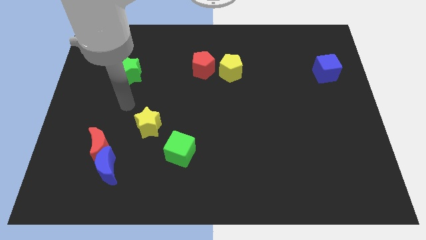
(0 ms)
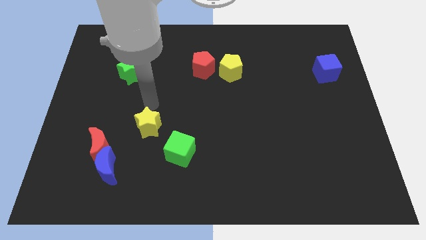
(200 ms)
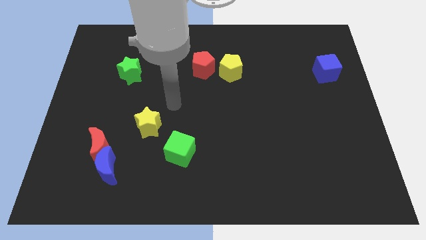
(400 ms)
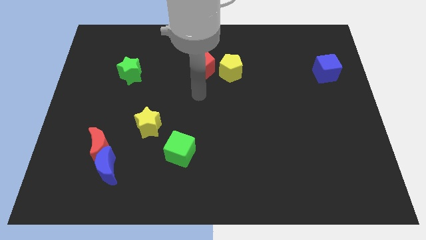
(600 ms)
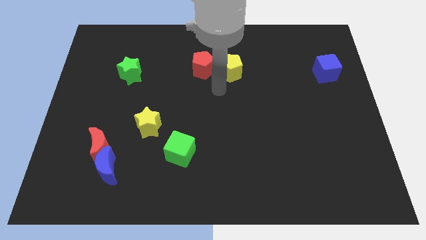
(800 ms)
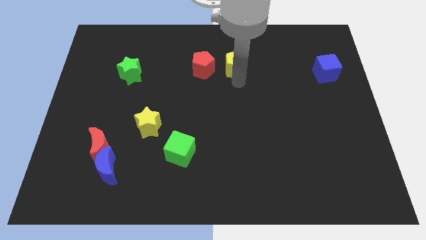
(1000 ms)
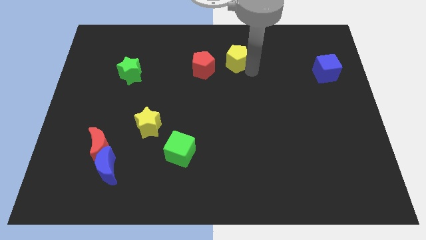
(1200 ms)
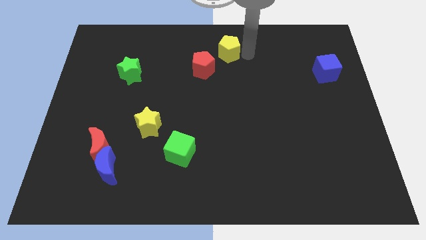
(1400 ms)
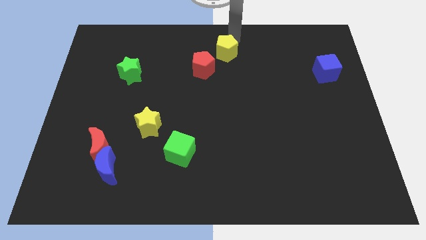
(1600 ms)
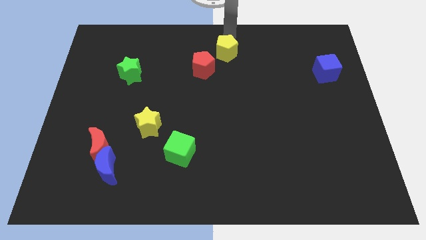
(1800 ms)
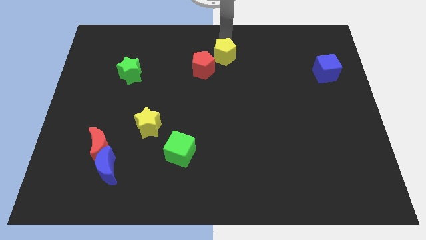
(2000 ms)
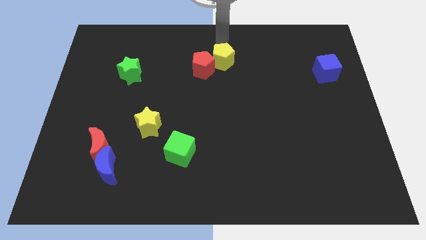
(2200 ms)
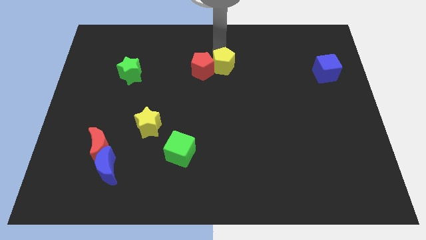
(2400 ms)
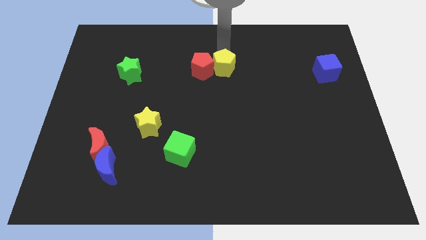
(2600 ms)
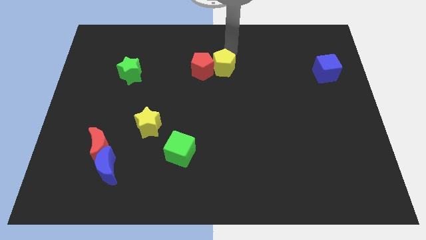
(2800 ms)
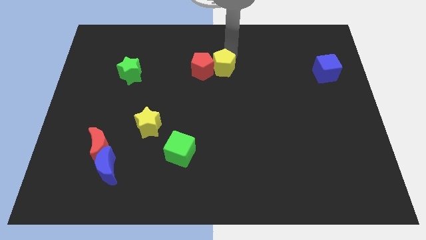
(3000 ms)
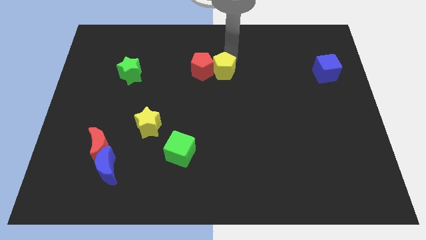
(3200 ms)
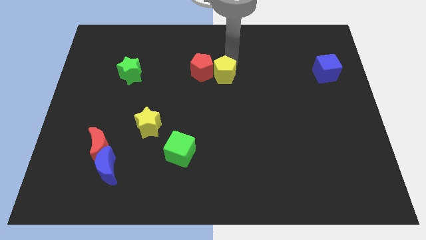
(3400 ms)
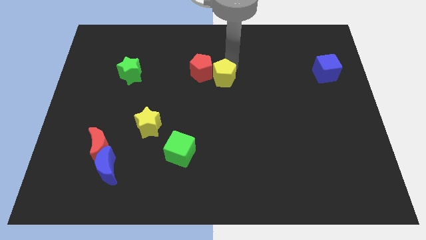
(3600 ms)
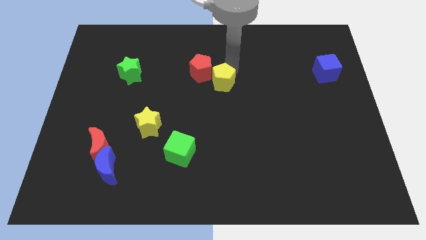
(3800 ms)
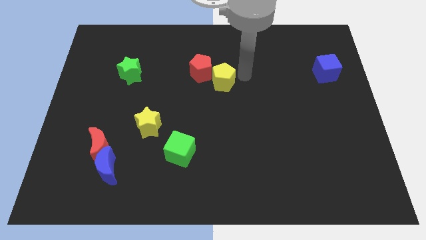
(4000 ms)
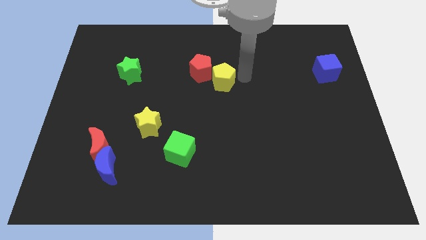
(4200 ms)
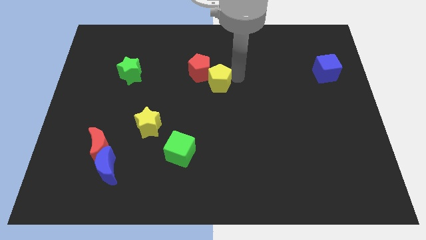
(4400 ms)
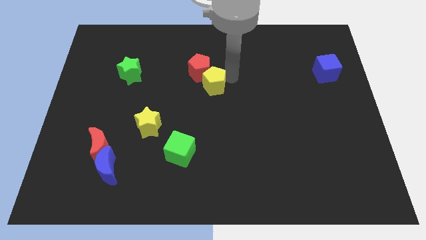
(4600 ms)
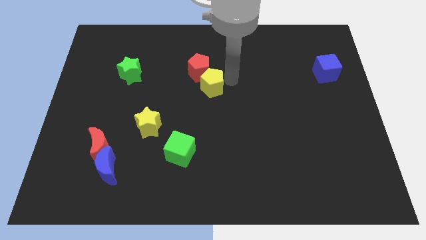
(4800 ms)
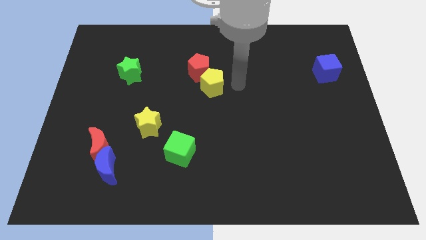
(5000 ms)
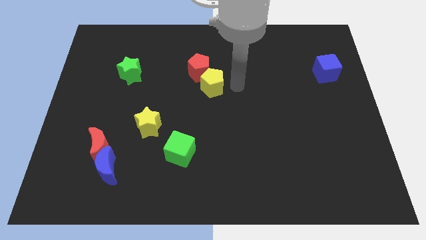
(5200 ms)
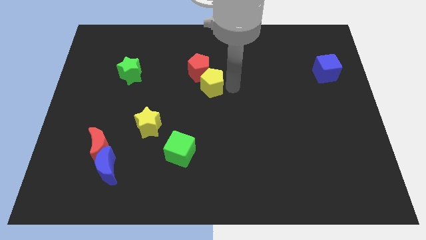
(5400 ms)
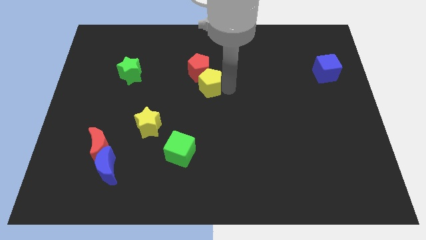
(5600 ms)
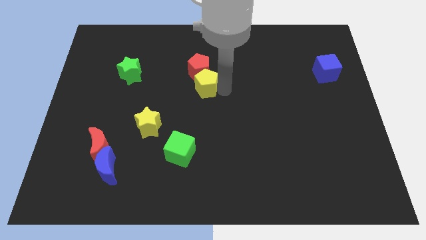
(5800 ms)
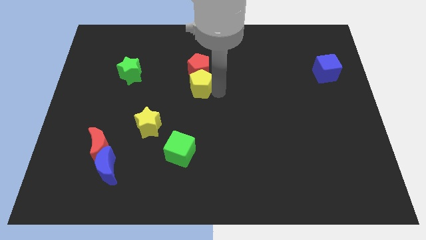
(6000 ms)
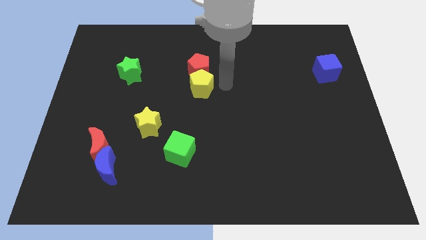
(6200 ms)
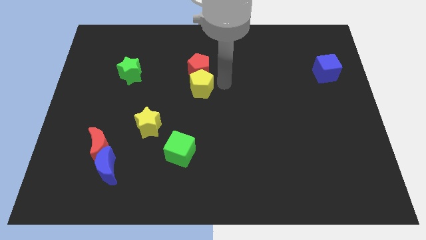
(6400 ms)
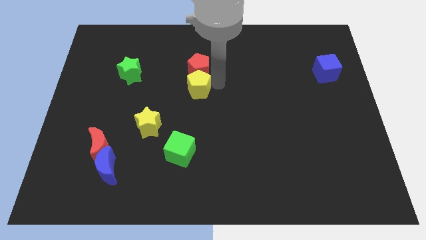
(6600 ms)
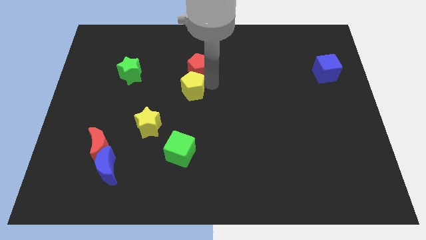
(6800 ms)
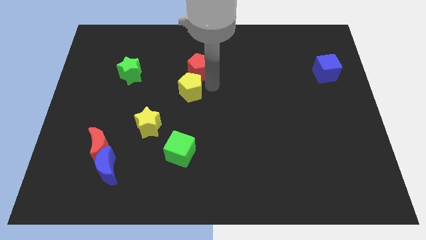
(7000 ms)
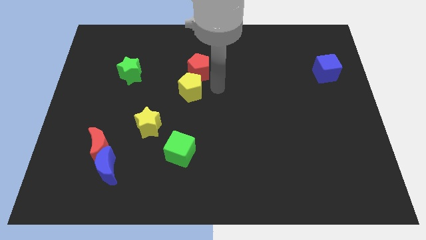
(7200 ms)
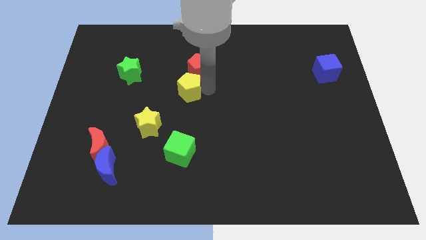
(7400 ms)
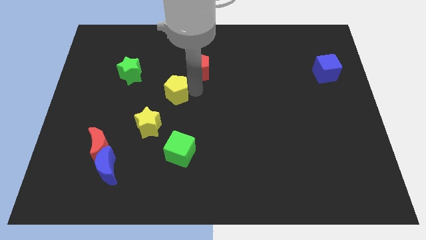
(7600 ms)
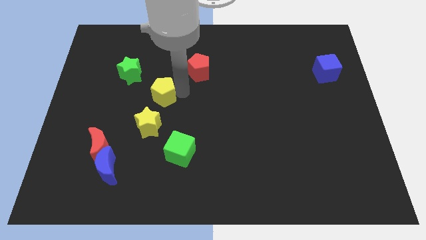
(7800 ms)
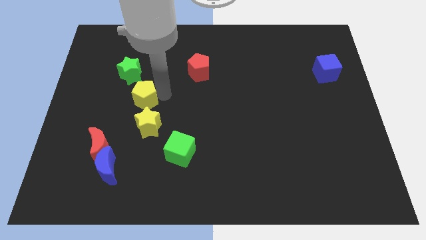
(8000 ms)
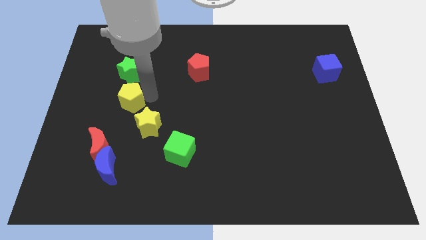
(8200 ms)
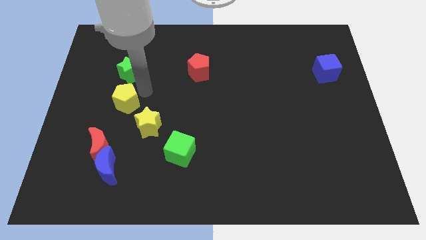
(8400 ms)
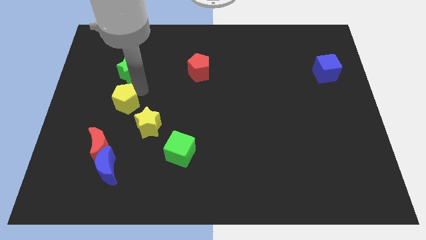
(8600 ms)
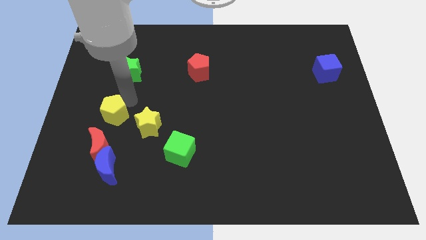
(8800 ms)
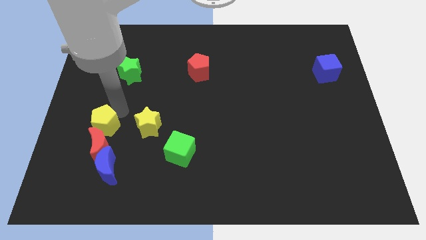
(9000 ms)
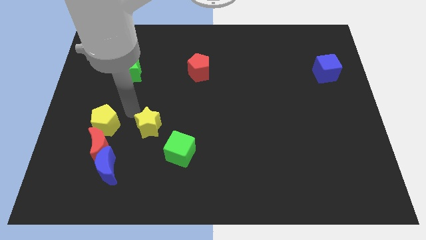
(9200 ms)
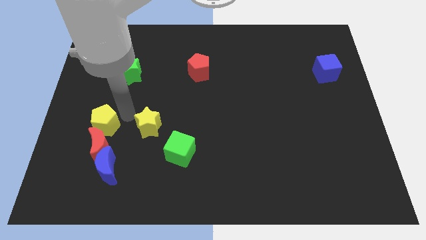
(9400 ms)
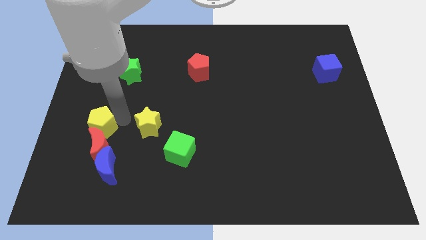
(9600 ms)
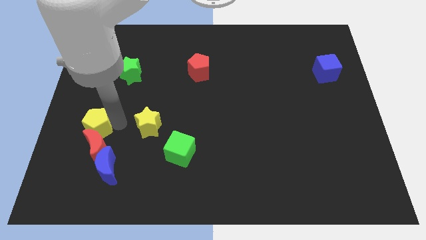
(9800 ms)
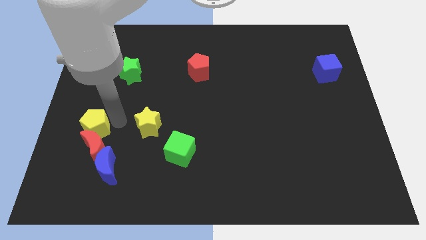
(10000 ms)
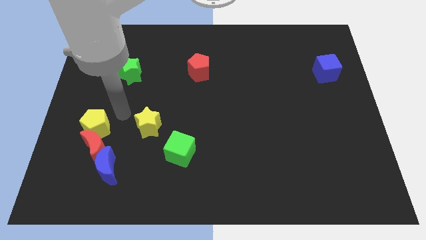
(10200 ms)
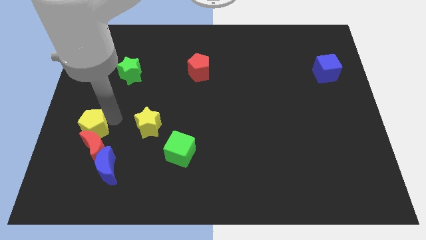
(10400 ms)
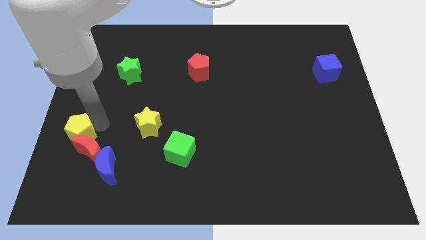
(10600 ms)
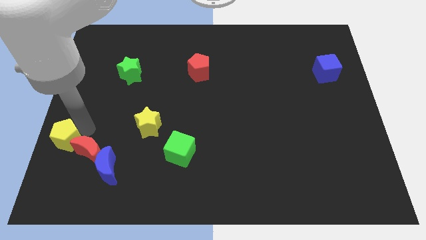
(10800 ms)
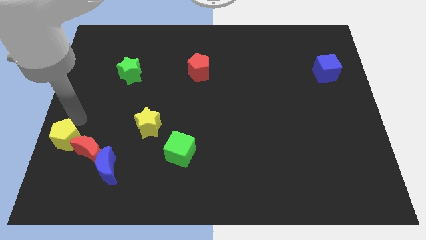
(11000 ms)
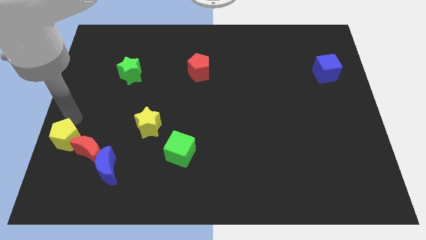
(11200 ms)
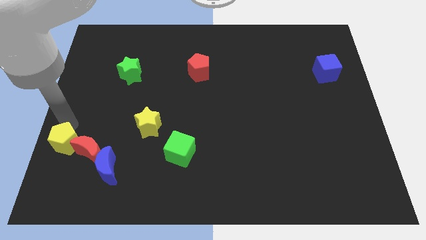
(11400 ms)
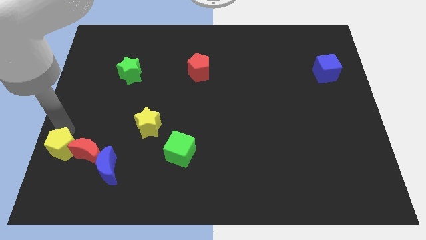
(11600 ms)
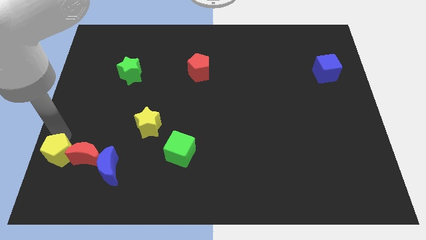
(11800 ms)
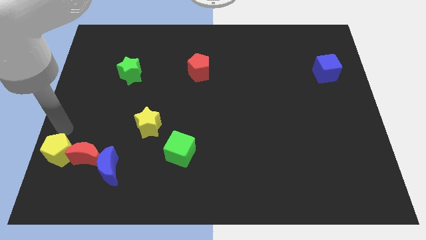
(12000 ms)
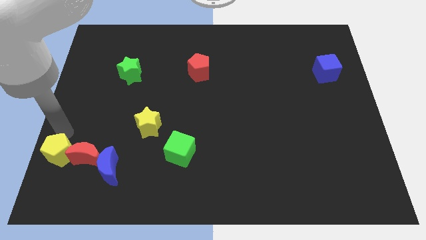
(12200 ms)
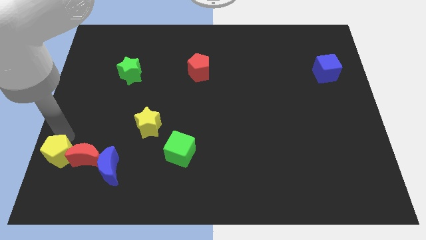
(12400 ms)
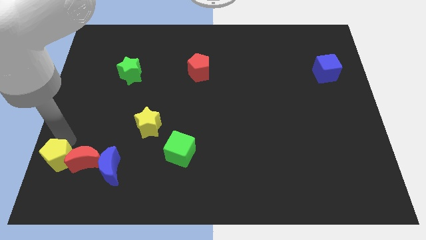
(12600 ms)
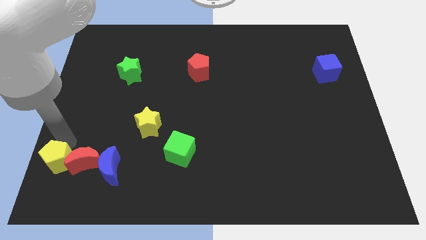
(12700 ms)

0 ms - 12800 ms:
push the yellow pentagon to the bottom left of the board
